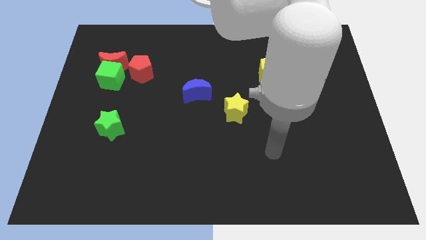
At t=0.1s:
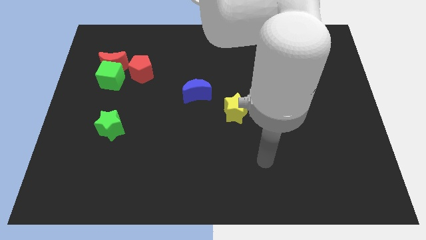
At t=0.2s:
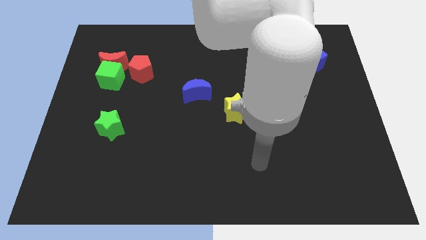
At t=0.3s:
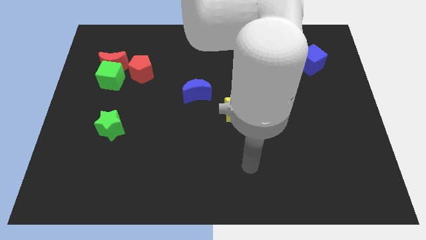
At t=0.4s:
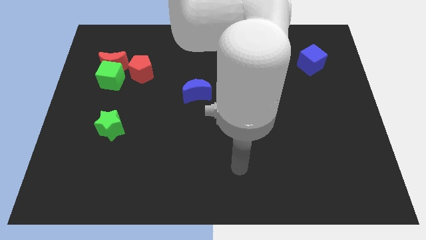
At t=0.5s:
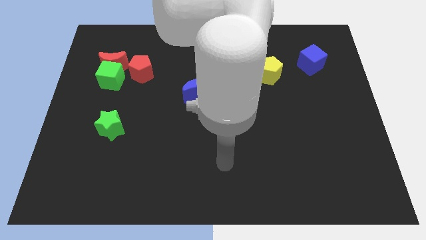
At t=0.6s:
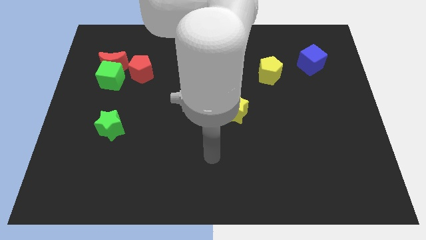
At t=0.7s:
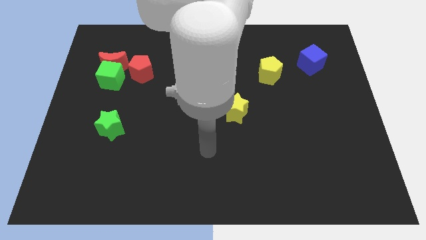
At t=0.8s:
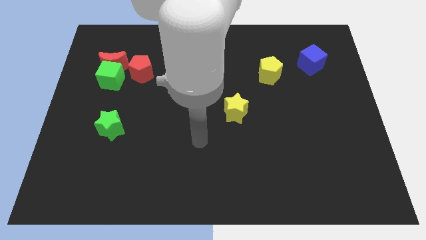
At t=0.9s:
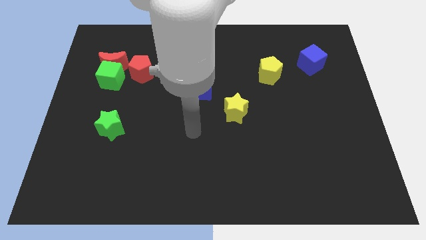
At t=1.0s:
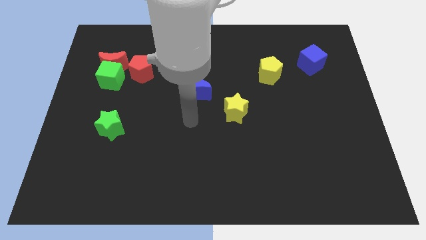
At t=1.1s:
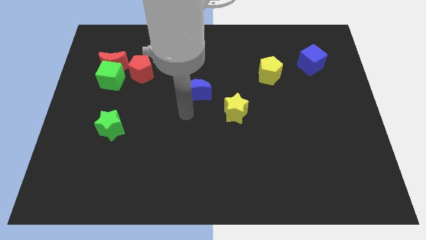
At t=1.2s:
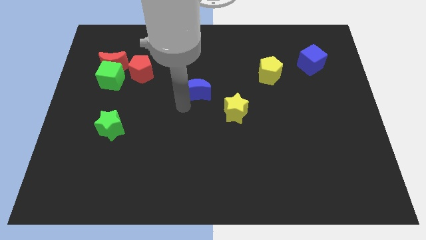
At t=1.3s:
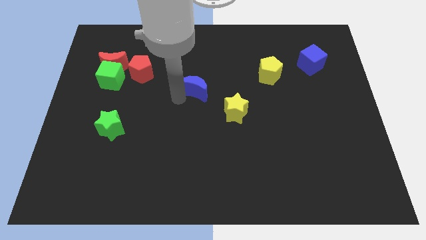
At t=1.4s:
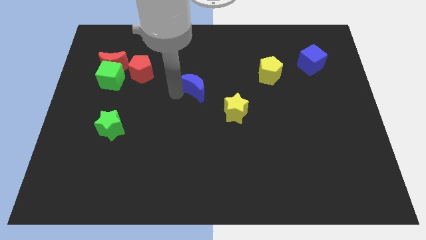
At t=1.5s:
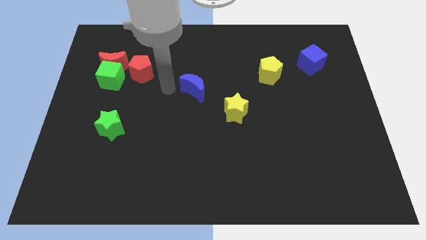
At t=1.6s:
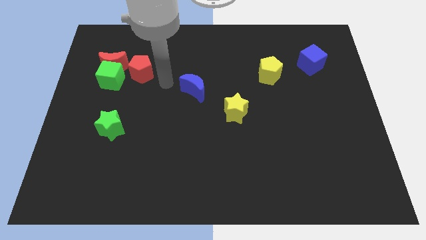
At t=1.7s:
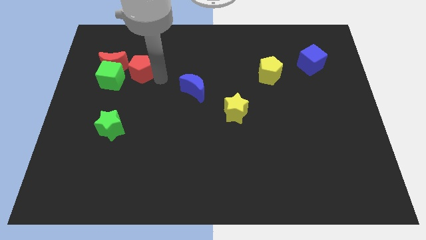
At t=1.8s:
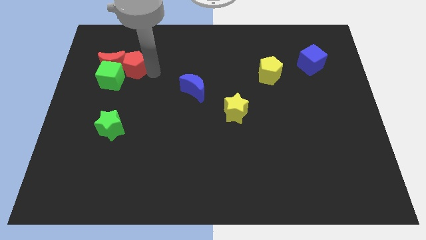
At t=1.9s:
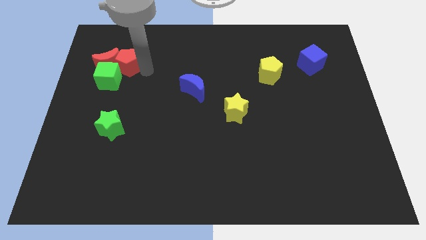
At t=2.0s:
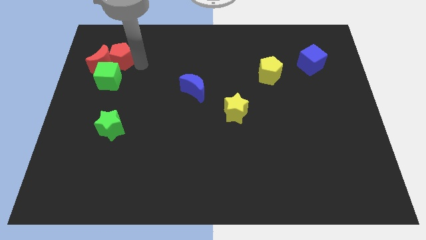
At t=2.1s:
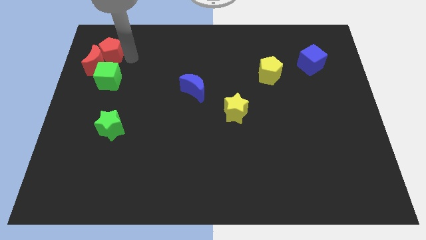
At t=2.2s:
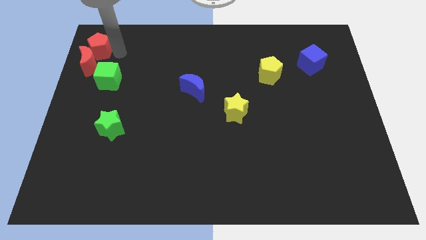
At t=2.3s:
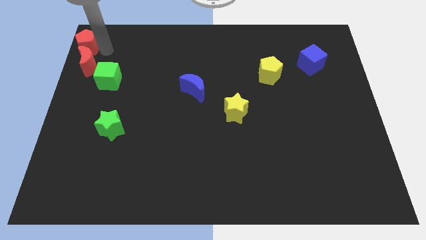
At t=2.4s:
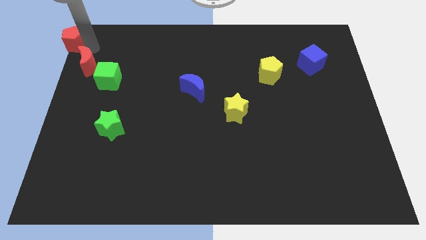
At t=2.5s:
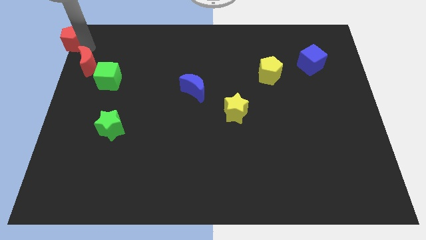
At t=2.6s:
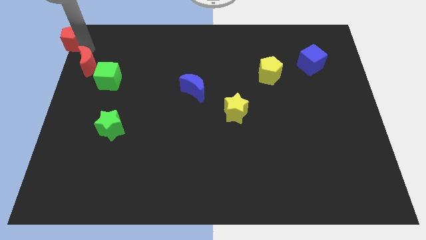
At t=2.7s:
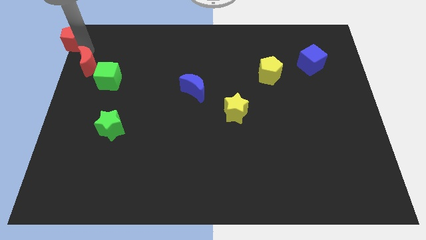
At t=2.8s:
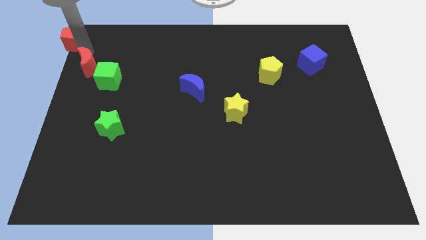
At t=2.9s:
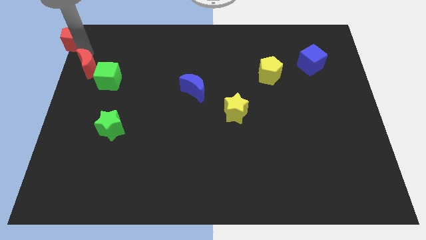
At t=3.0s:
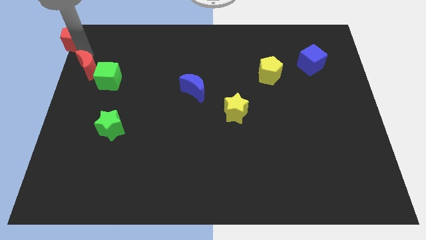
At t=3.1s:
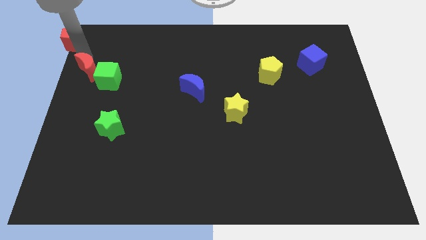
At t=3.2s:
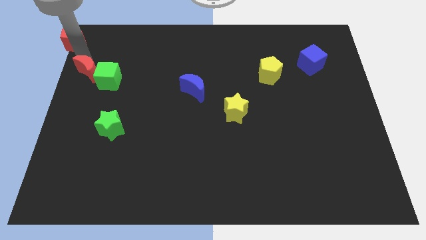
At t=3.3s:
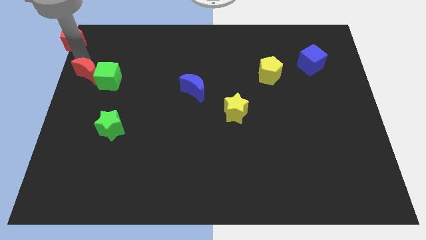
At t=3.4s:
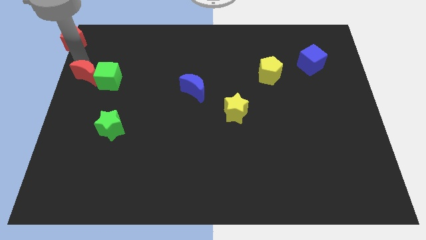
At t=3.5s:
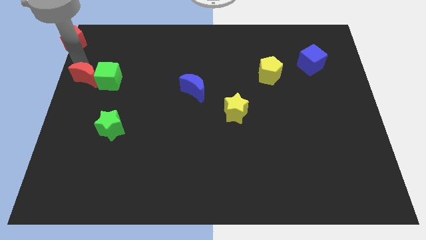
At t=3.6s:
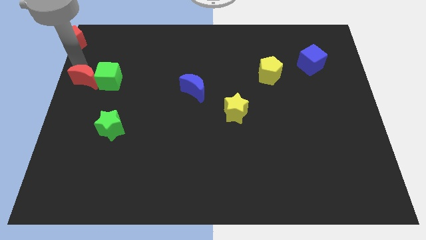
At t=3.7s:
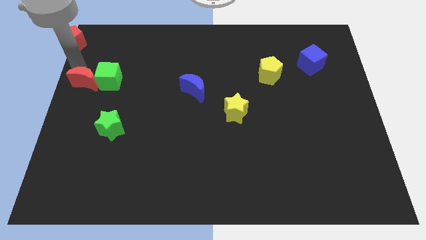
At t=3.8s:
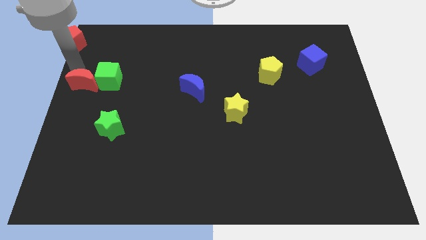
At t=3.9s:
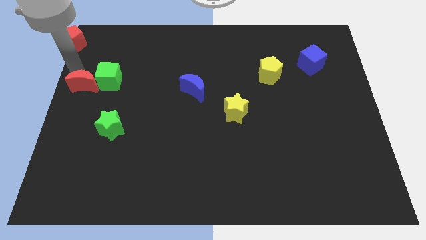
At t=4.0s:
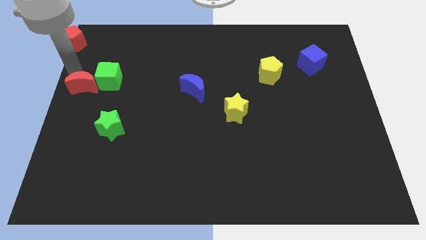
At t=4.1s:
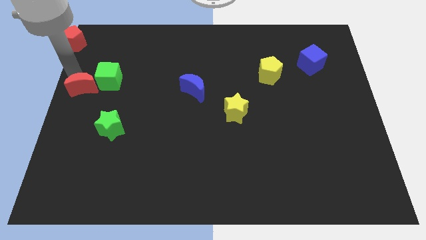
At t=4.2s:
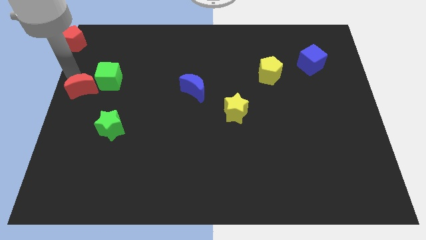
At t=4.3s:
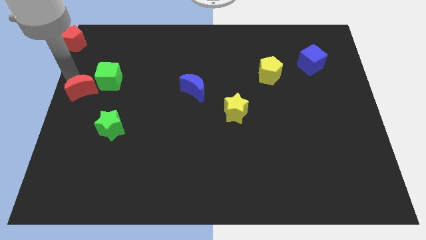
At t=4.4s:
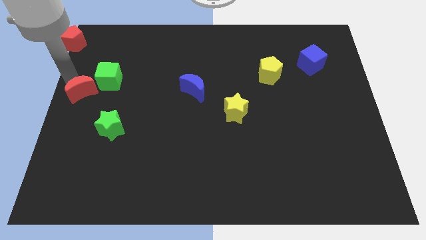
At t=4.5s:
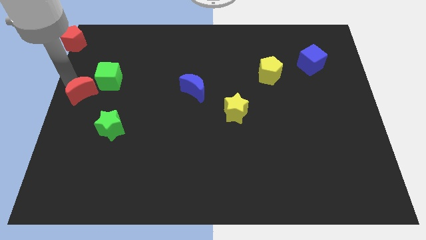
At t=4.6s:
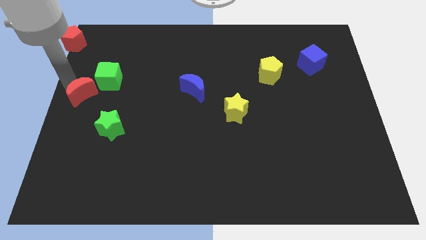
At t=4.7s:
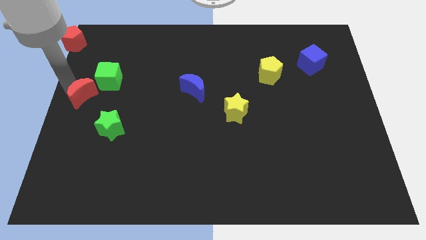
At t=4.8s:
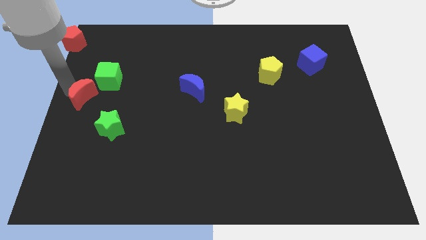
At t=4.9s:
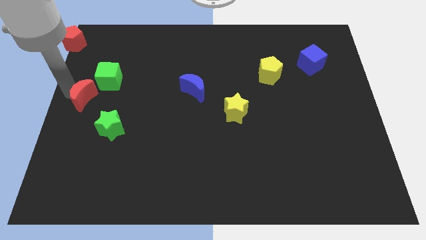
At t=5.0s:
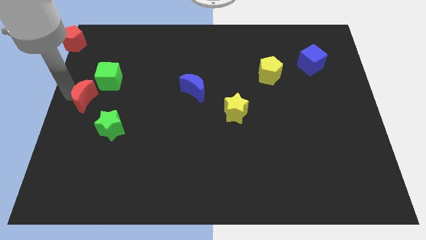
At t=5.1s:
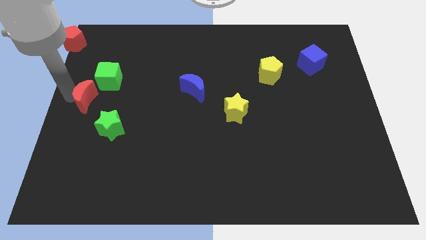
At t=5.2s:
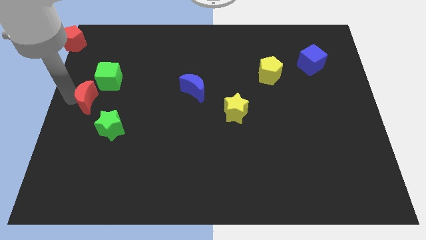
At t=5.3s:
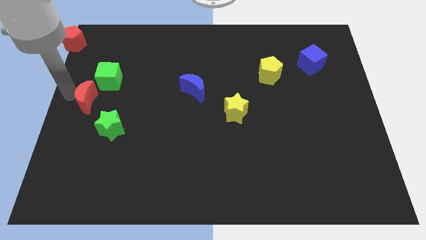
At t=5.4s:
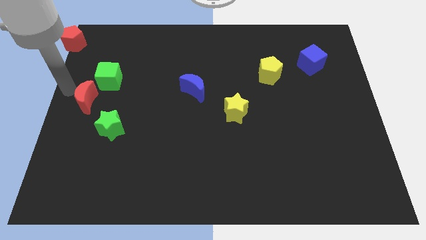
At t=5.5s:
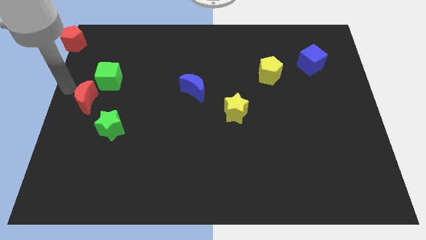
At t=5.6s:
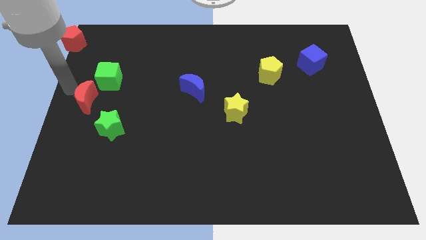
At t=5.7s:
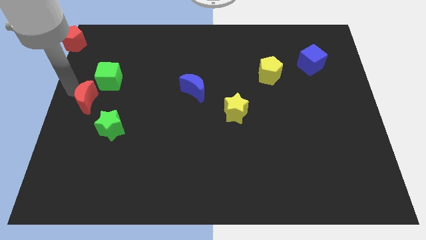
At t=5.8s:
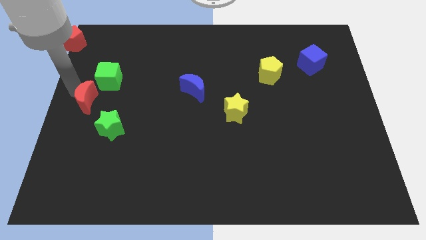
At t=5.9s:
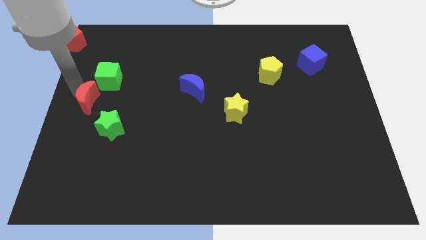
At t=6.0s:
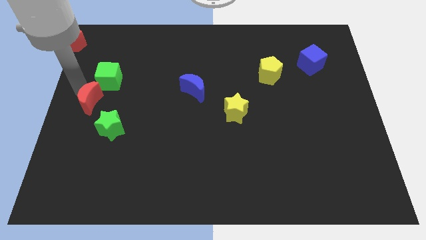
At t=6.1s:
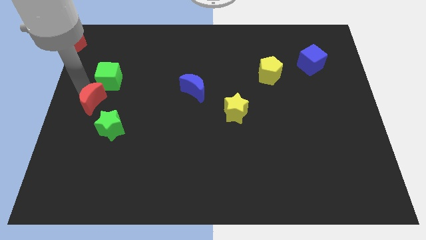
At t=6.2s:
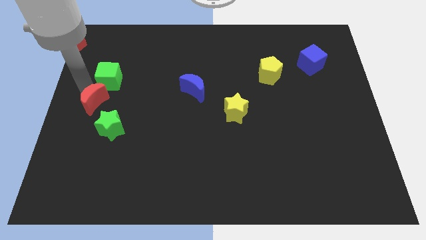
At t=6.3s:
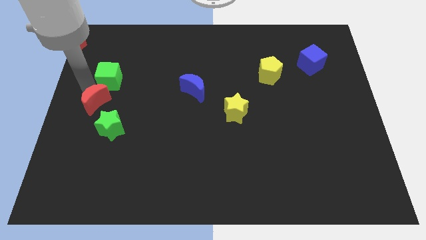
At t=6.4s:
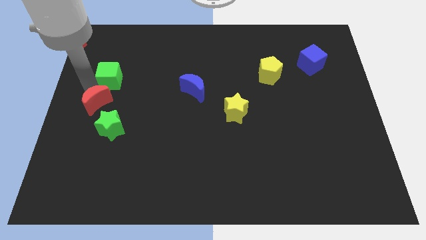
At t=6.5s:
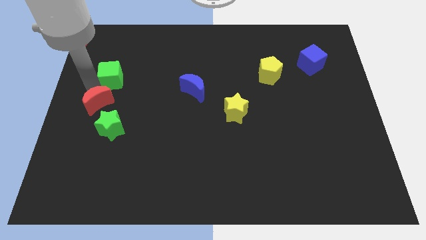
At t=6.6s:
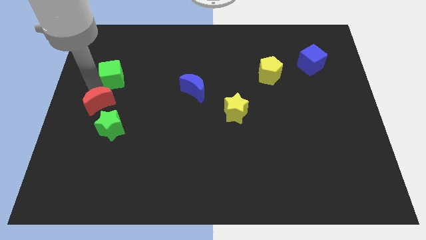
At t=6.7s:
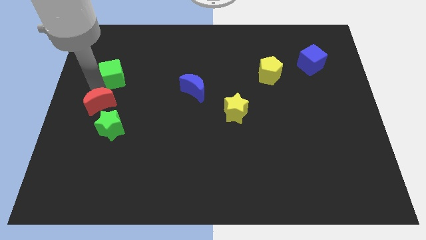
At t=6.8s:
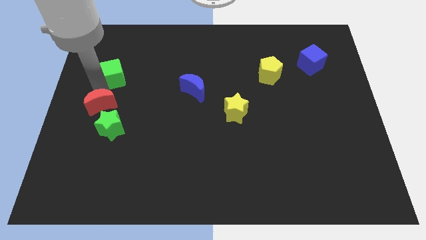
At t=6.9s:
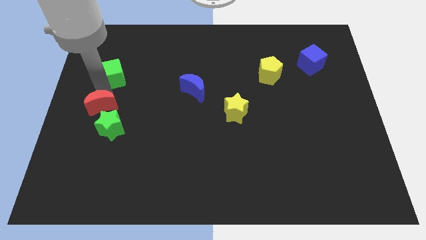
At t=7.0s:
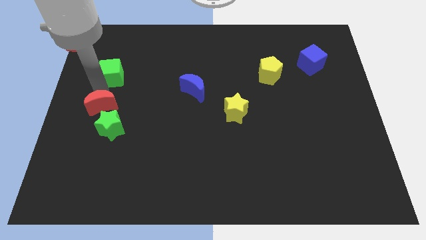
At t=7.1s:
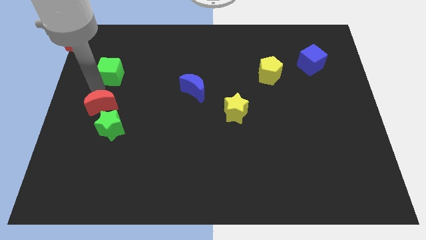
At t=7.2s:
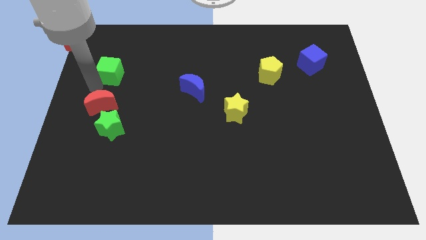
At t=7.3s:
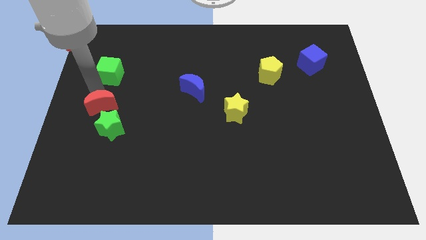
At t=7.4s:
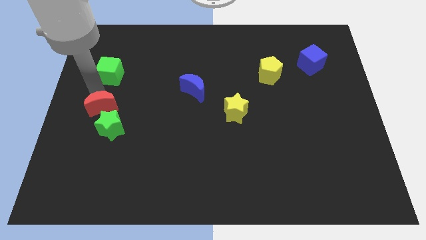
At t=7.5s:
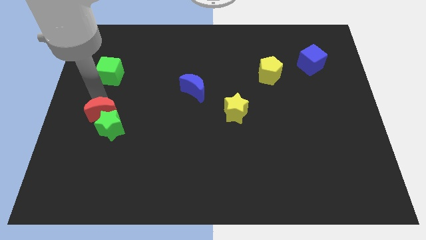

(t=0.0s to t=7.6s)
slide the red moon to the green star

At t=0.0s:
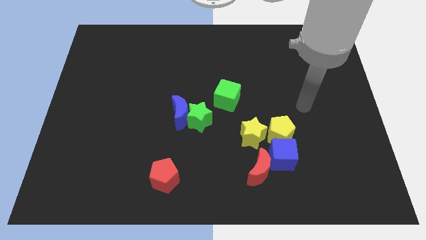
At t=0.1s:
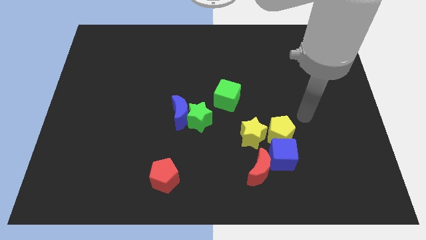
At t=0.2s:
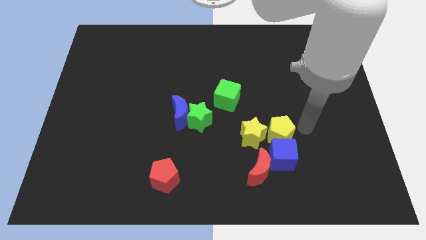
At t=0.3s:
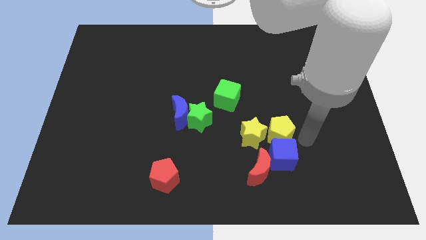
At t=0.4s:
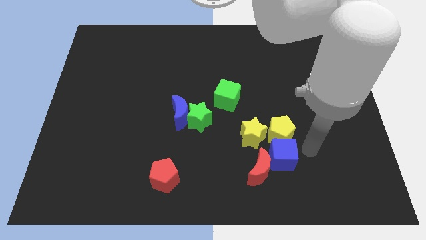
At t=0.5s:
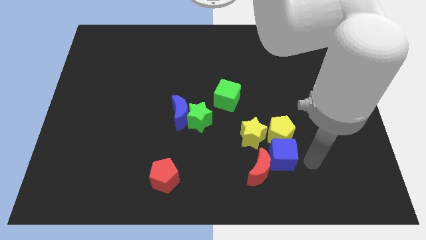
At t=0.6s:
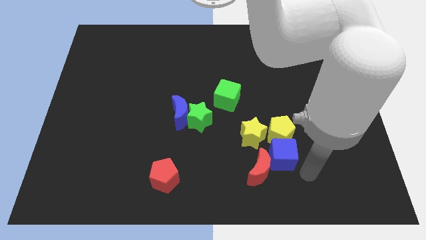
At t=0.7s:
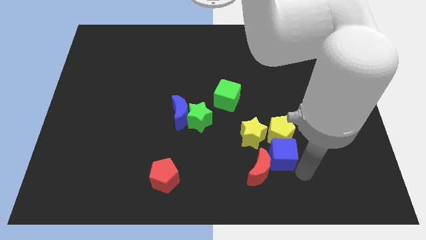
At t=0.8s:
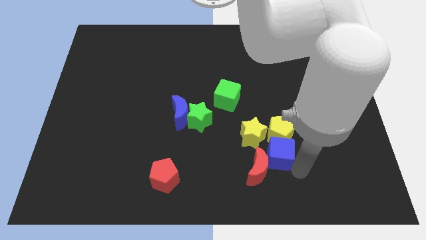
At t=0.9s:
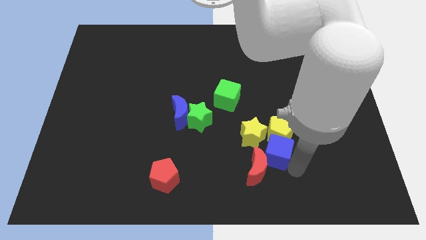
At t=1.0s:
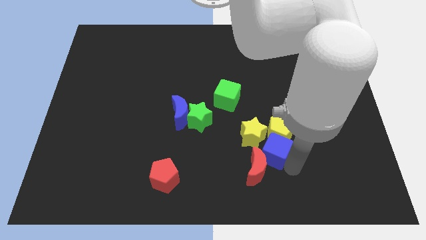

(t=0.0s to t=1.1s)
put the blue cube to the yellow star
